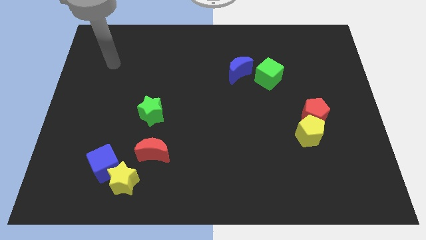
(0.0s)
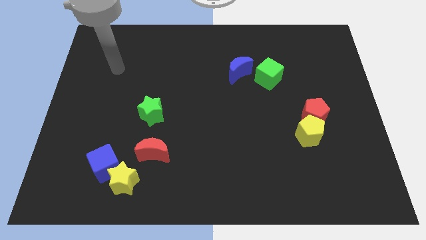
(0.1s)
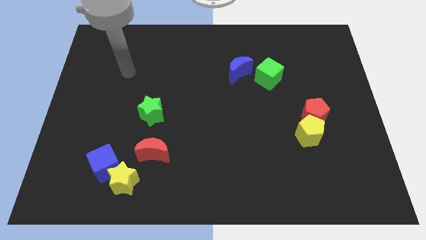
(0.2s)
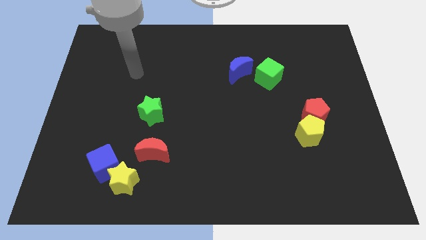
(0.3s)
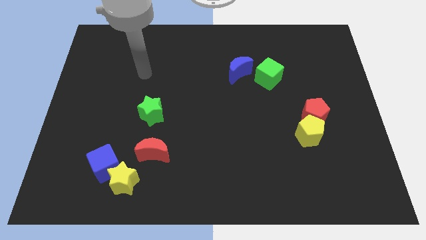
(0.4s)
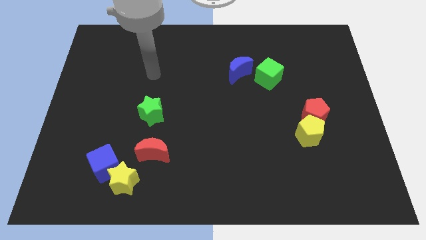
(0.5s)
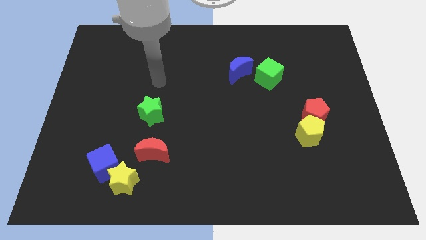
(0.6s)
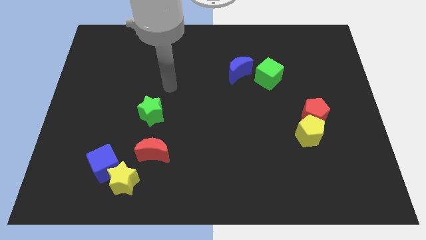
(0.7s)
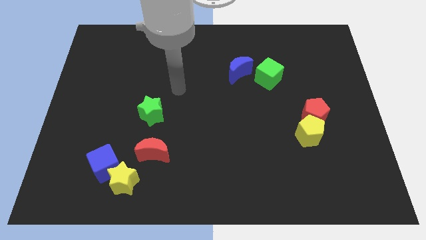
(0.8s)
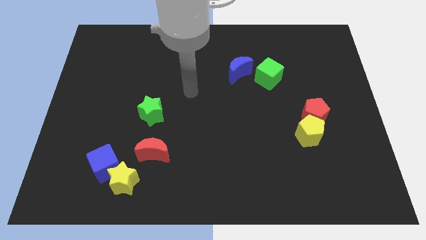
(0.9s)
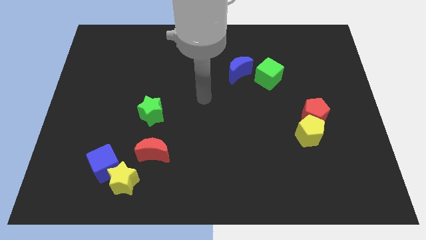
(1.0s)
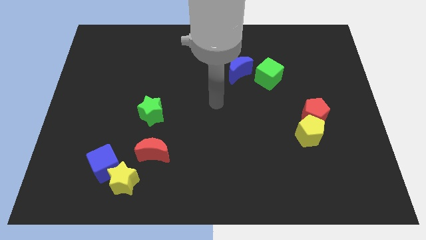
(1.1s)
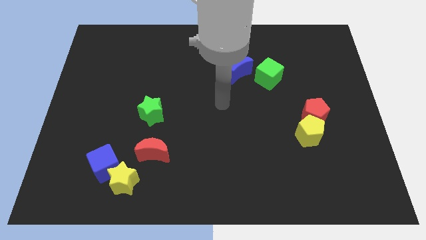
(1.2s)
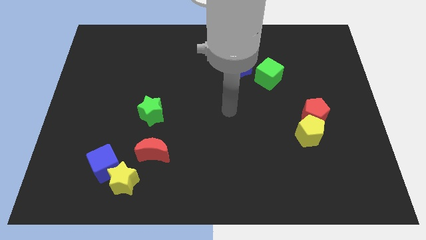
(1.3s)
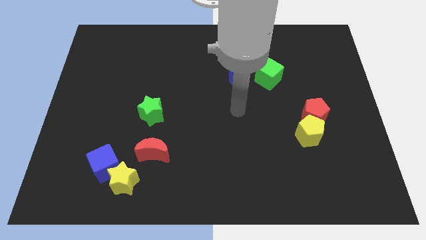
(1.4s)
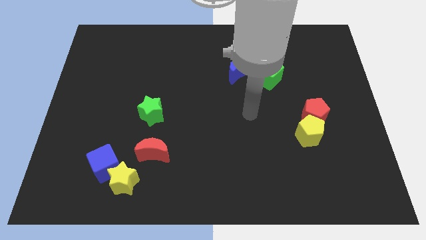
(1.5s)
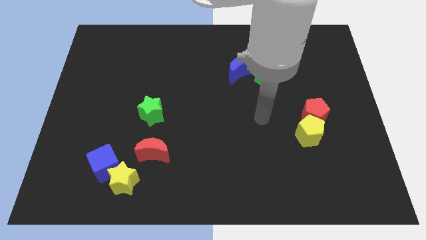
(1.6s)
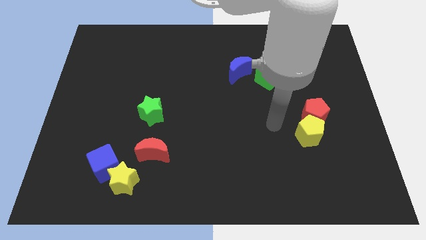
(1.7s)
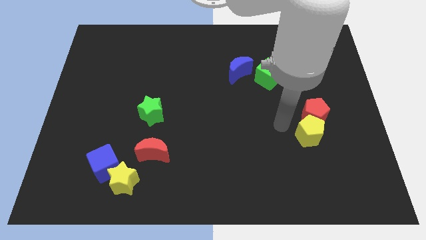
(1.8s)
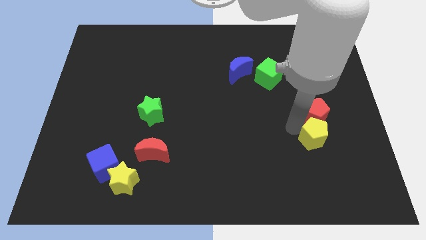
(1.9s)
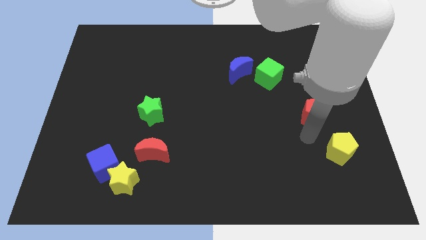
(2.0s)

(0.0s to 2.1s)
pull the red pentagon apart from the yellow pentagon

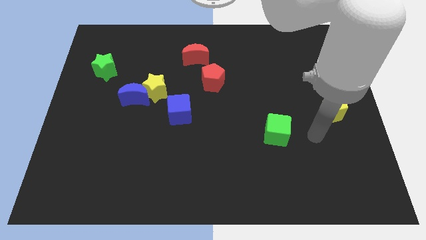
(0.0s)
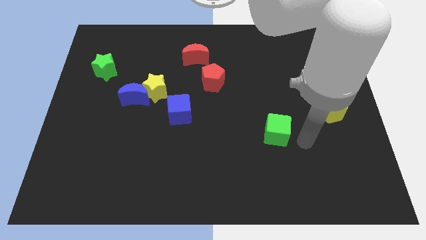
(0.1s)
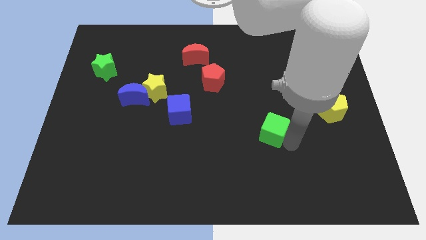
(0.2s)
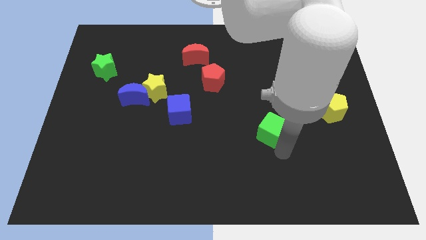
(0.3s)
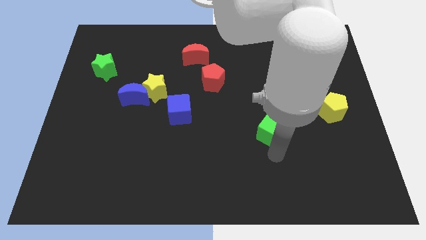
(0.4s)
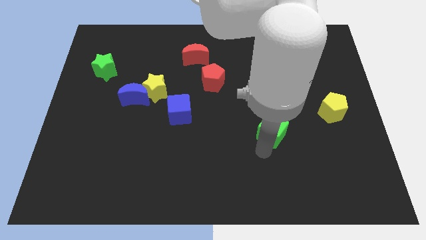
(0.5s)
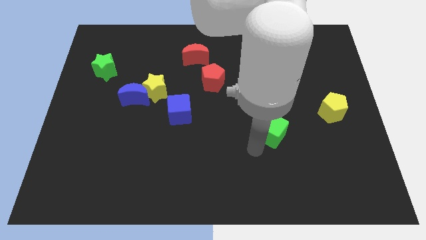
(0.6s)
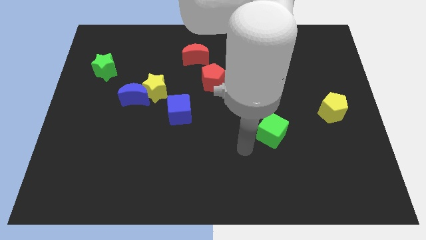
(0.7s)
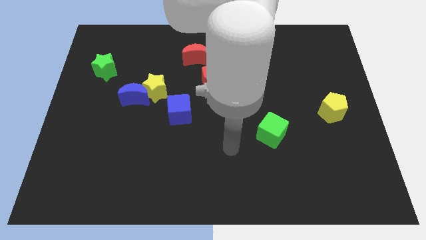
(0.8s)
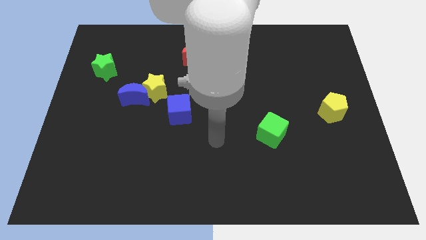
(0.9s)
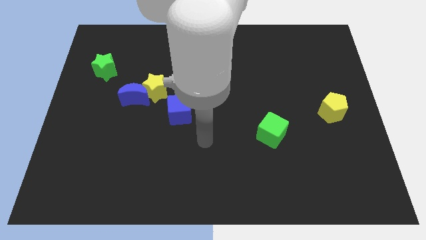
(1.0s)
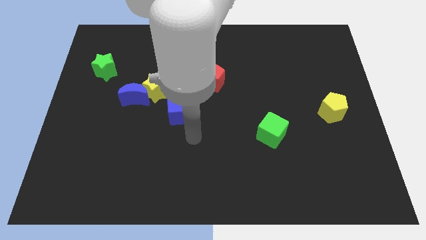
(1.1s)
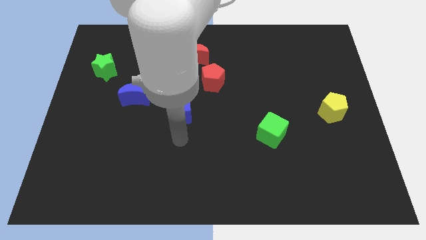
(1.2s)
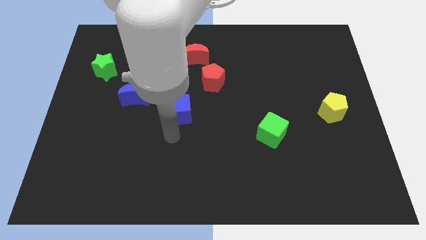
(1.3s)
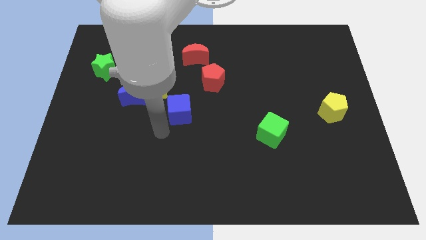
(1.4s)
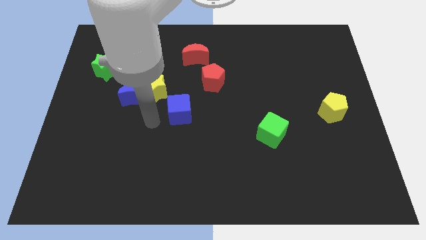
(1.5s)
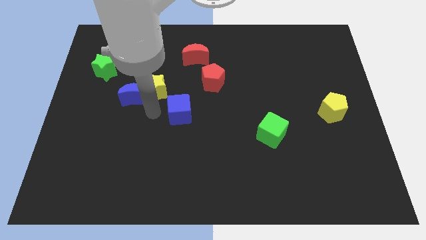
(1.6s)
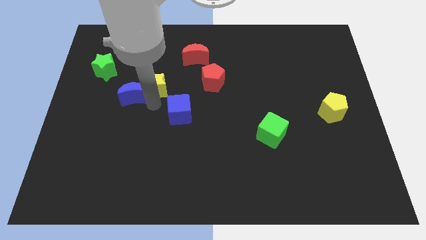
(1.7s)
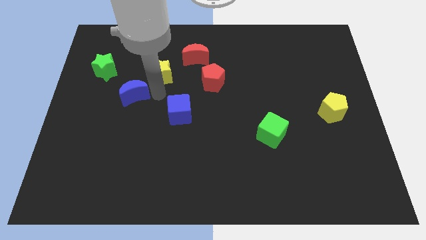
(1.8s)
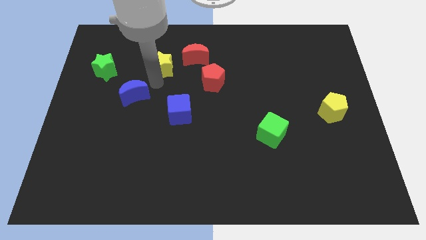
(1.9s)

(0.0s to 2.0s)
move the blue moon away from the yellow star

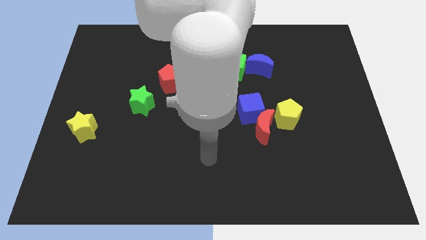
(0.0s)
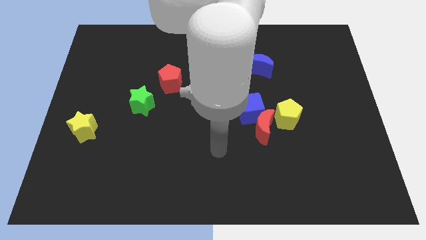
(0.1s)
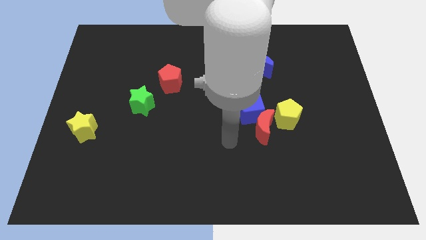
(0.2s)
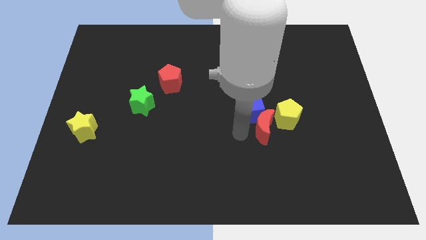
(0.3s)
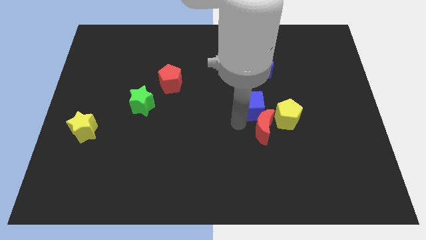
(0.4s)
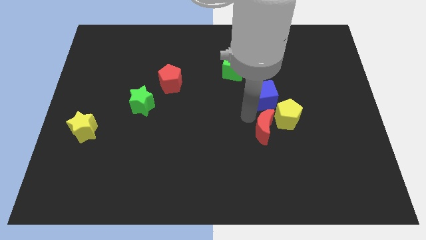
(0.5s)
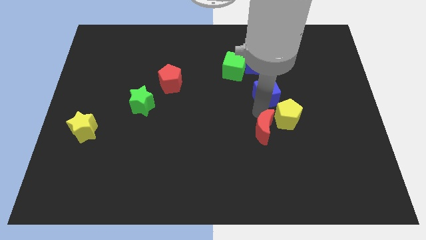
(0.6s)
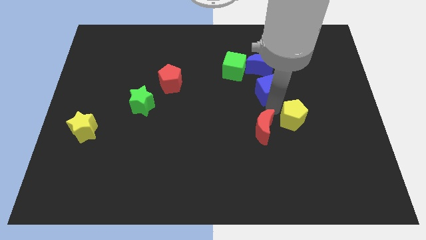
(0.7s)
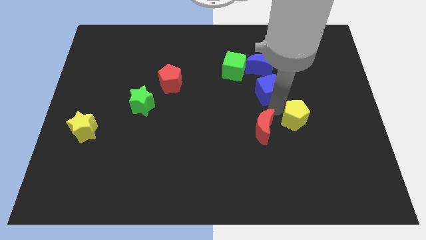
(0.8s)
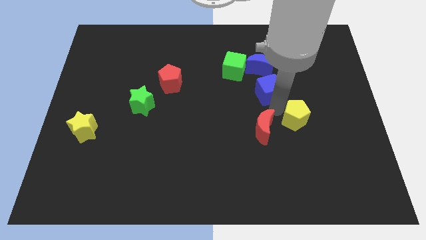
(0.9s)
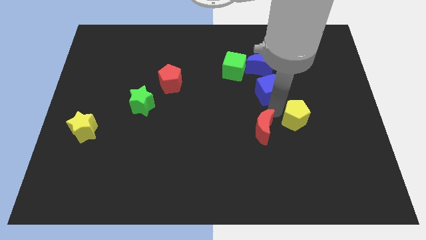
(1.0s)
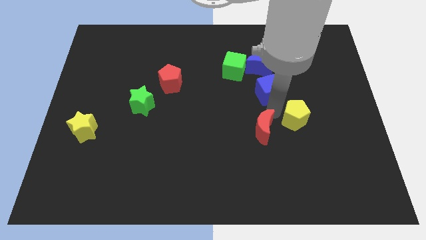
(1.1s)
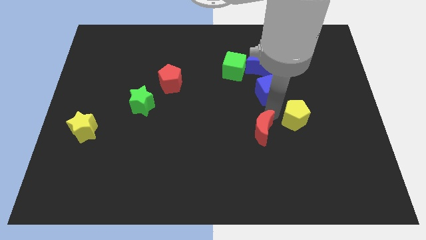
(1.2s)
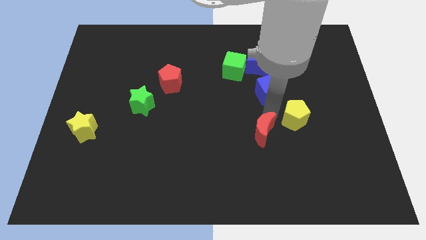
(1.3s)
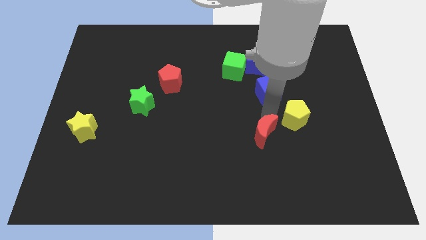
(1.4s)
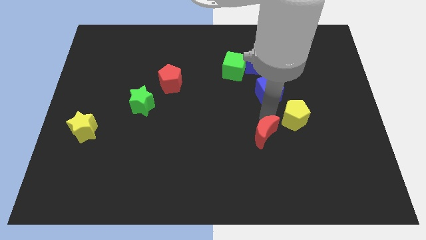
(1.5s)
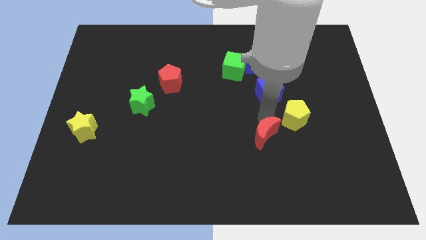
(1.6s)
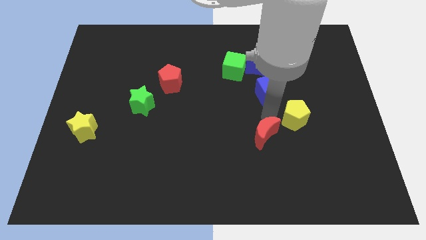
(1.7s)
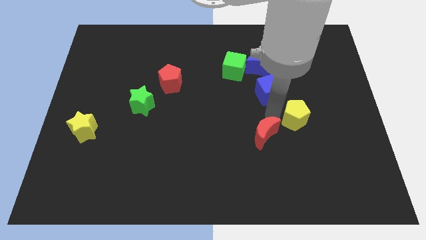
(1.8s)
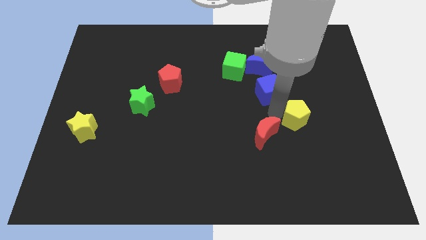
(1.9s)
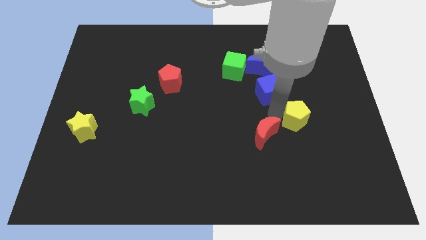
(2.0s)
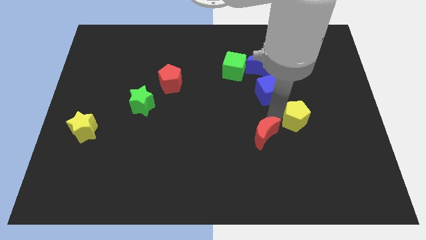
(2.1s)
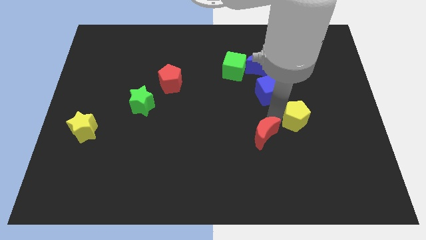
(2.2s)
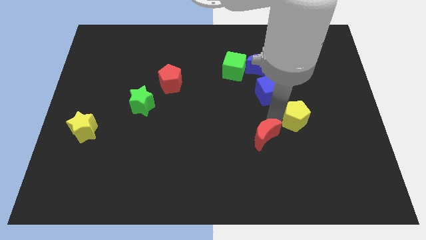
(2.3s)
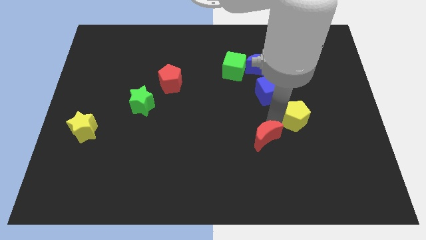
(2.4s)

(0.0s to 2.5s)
pull the red moon apart from the blue cube and yellow pentagon

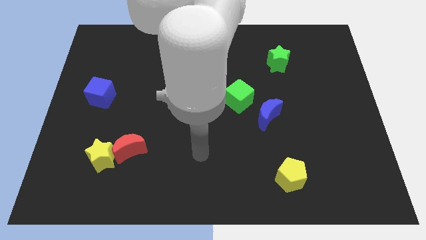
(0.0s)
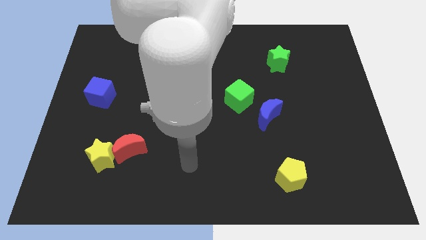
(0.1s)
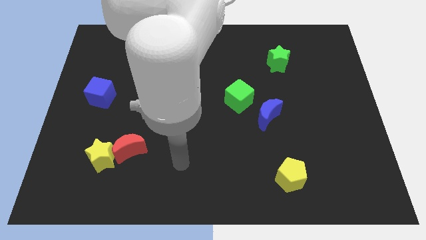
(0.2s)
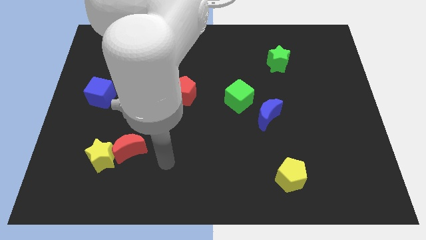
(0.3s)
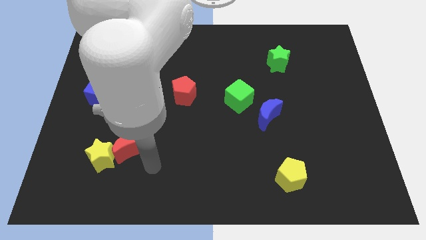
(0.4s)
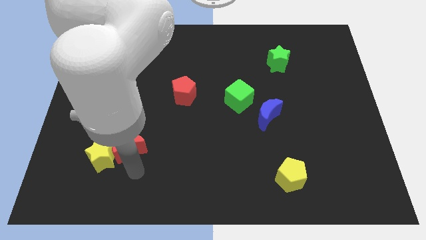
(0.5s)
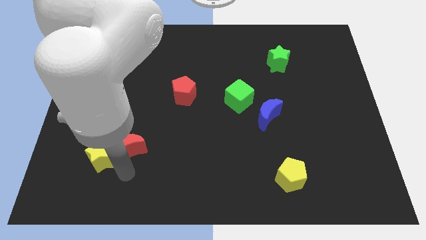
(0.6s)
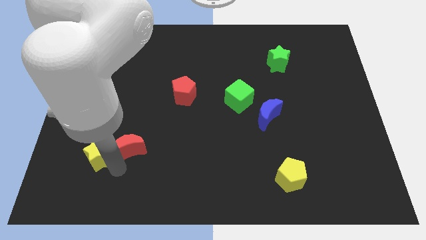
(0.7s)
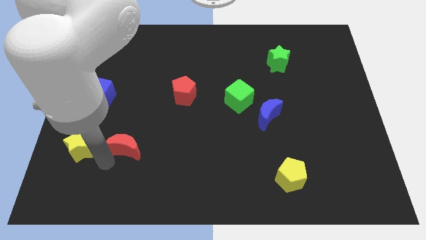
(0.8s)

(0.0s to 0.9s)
pull the red moon apart from the yellow star

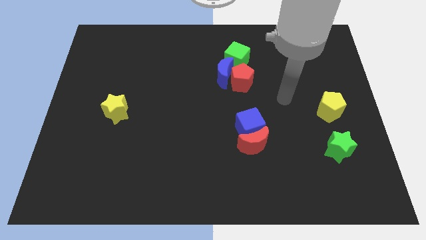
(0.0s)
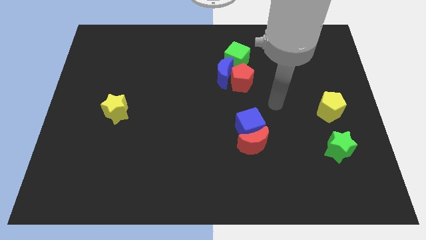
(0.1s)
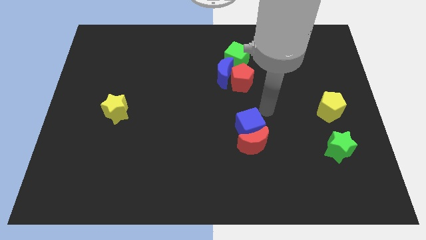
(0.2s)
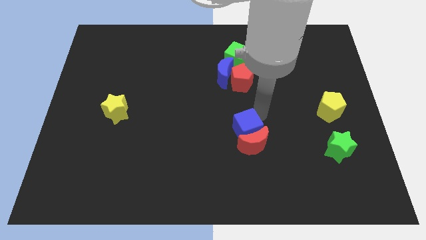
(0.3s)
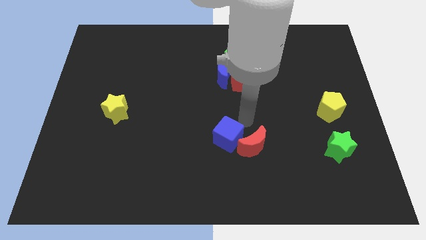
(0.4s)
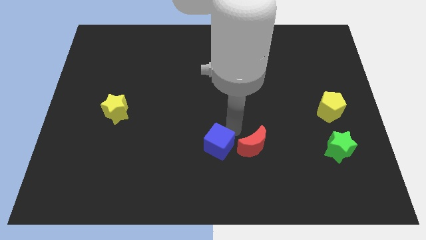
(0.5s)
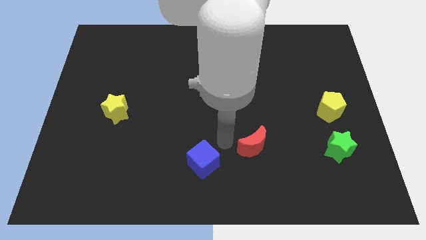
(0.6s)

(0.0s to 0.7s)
move the red moon away from the blue cube

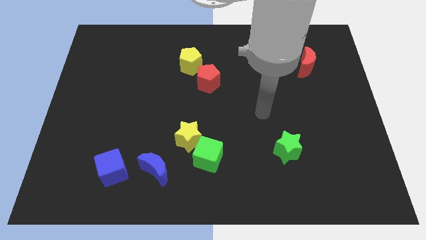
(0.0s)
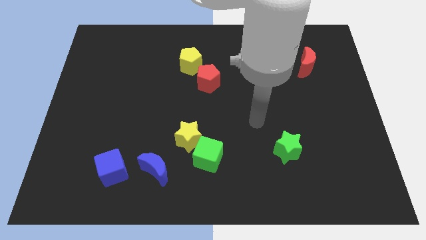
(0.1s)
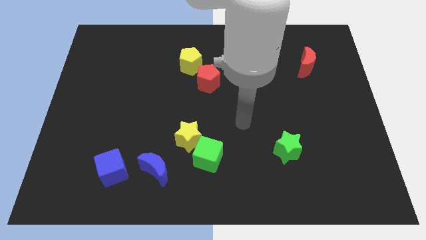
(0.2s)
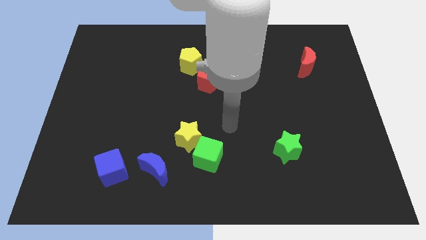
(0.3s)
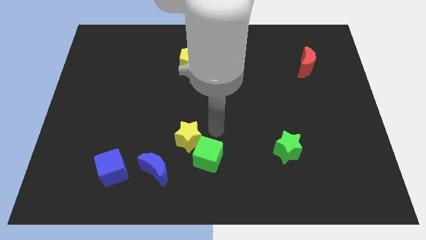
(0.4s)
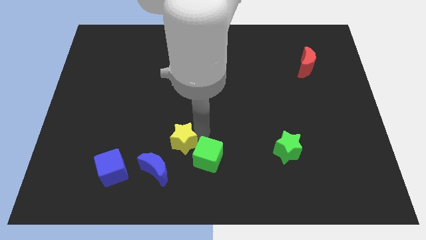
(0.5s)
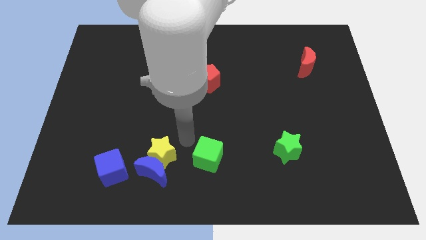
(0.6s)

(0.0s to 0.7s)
pull the green cube apart from the yellow star

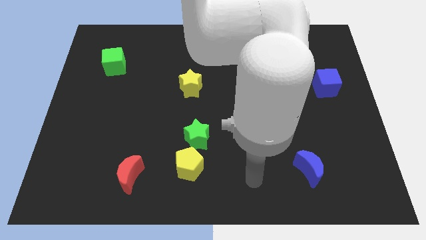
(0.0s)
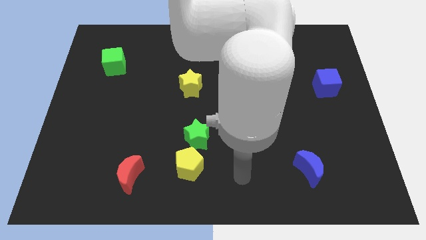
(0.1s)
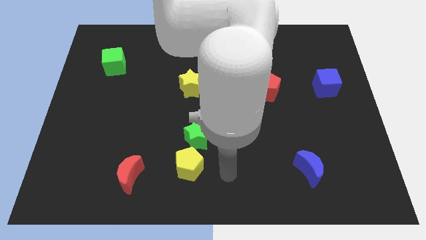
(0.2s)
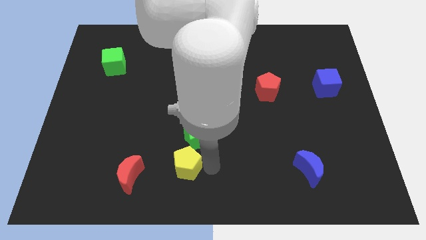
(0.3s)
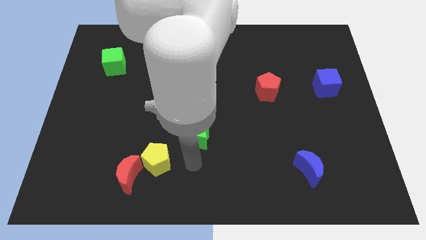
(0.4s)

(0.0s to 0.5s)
pull the green star apart from the yellow pentagon
